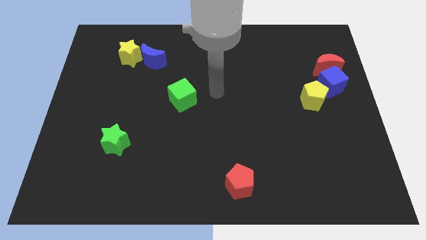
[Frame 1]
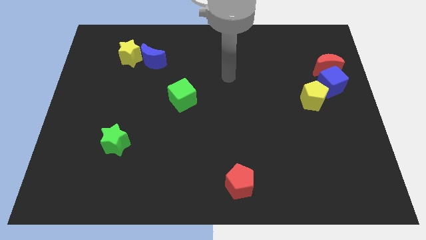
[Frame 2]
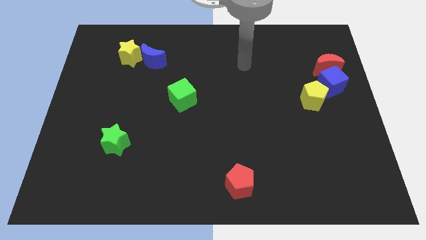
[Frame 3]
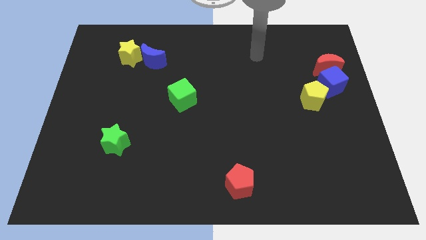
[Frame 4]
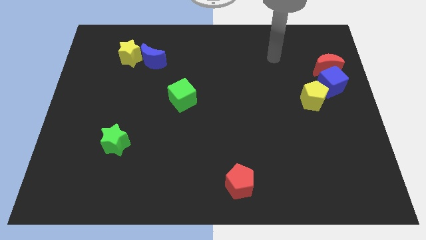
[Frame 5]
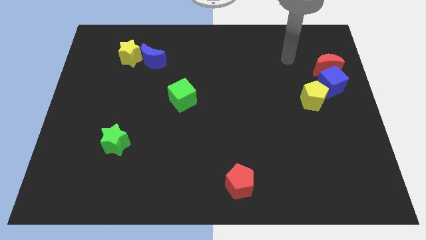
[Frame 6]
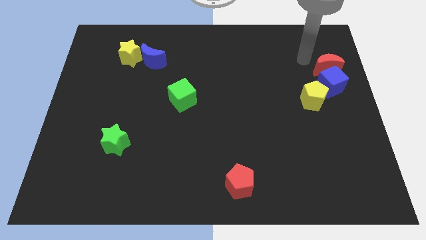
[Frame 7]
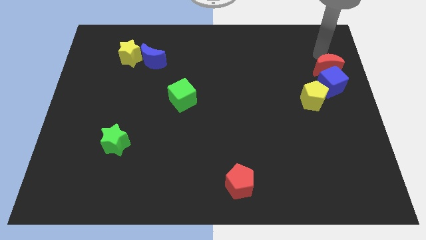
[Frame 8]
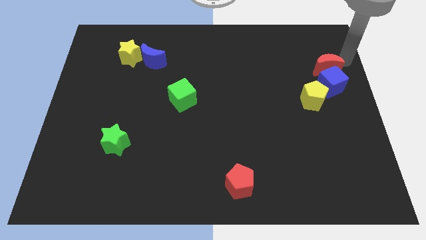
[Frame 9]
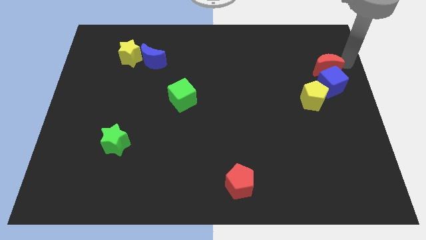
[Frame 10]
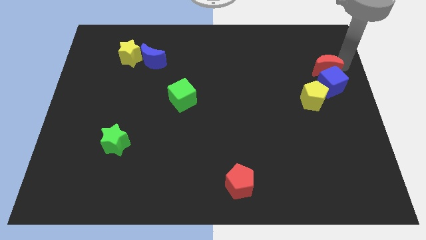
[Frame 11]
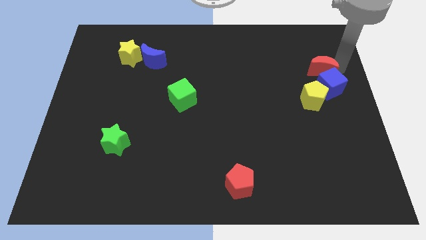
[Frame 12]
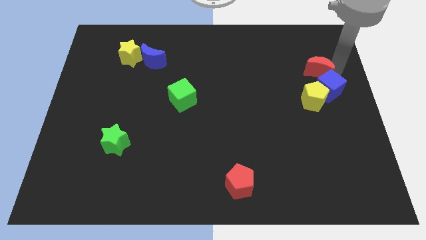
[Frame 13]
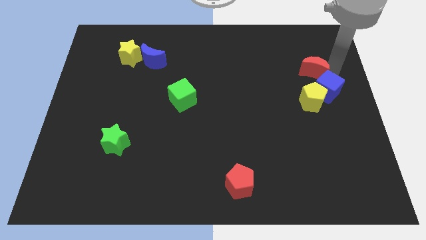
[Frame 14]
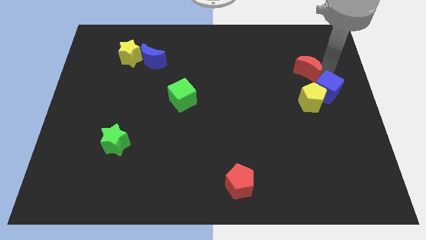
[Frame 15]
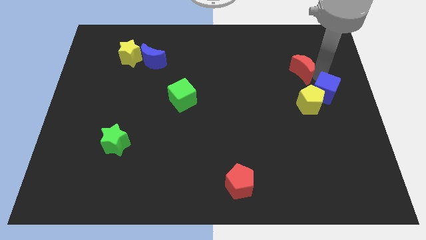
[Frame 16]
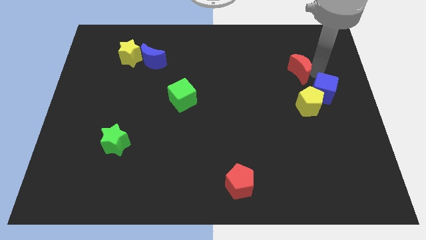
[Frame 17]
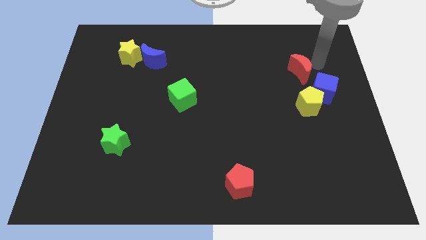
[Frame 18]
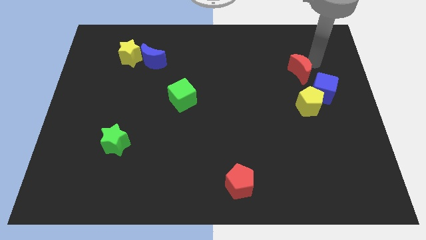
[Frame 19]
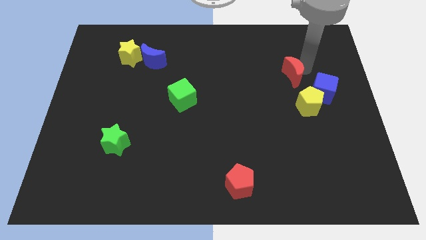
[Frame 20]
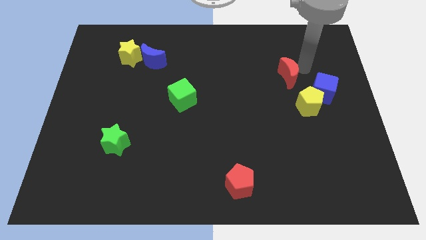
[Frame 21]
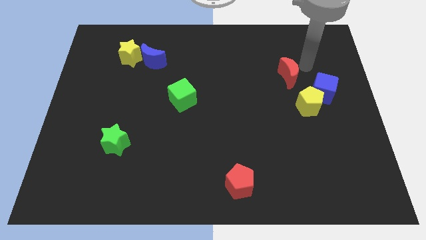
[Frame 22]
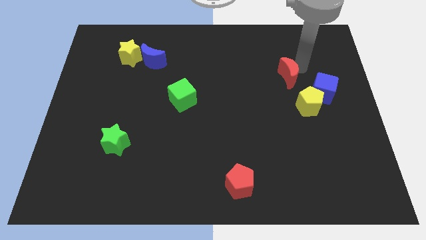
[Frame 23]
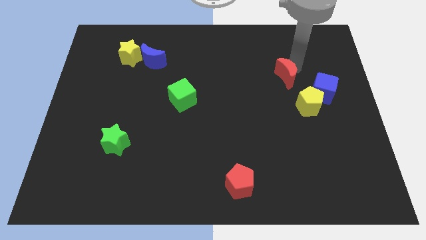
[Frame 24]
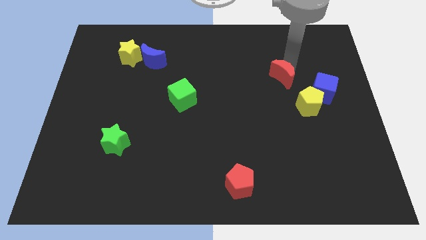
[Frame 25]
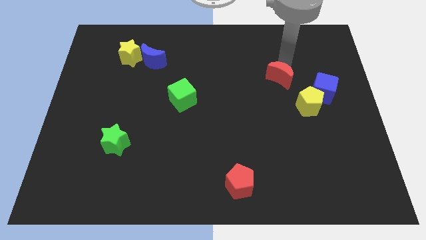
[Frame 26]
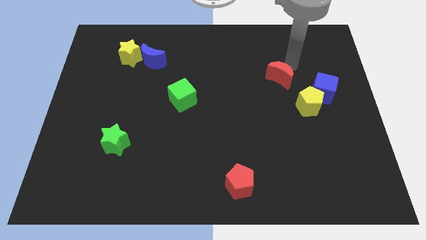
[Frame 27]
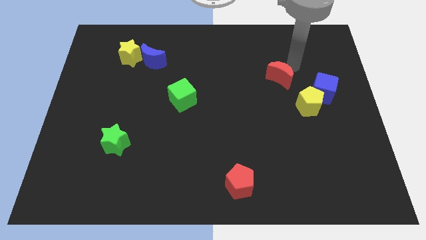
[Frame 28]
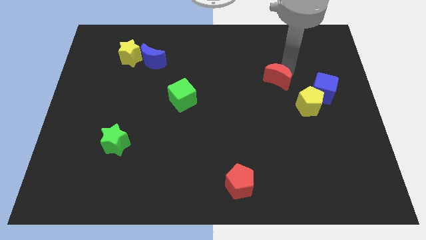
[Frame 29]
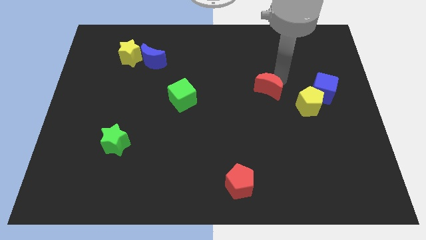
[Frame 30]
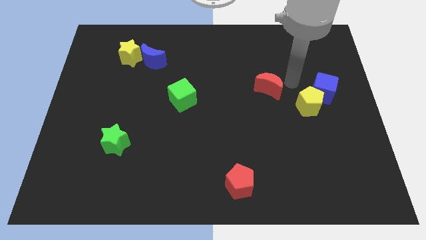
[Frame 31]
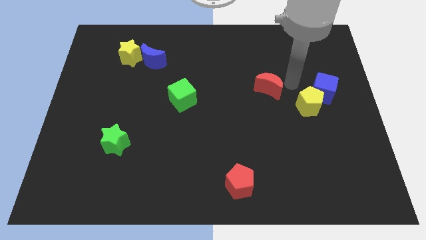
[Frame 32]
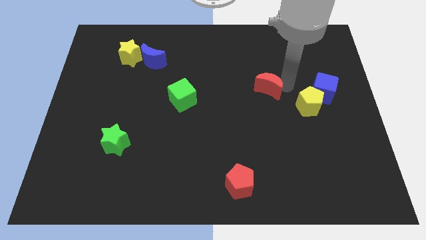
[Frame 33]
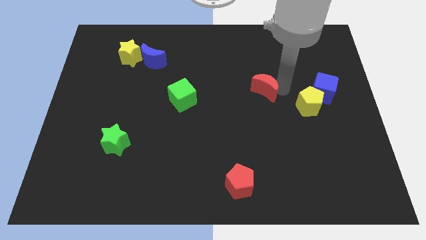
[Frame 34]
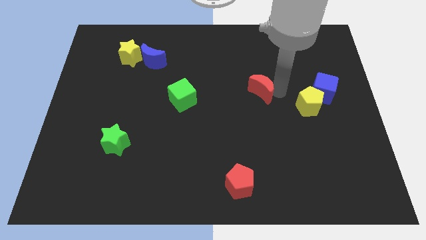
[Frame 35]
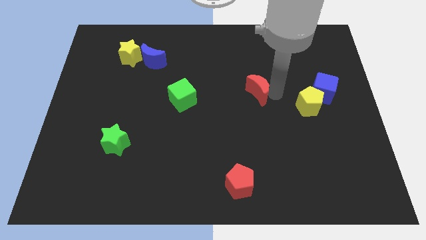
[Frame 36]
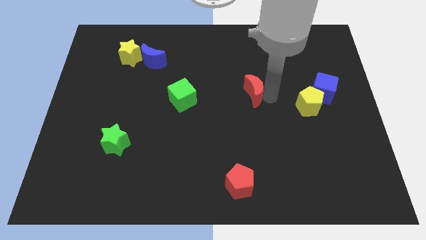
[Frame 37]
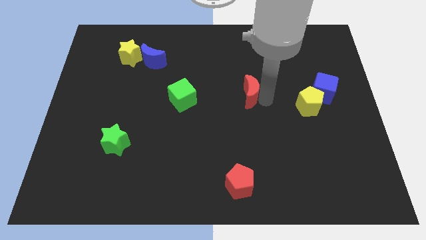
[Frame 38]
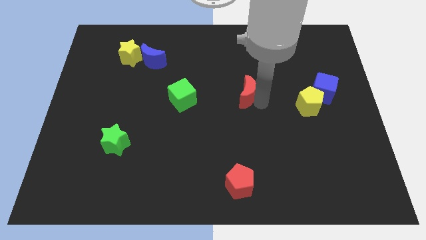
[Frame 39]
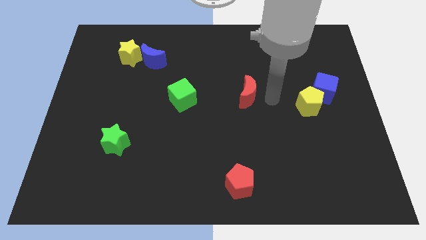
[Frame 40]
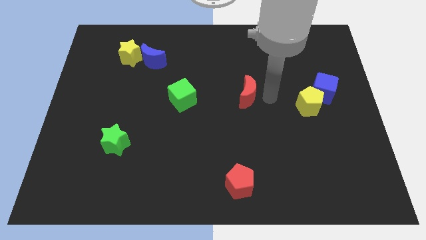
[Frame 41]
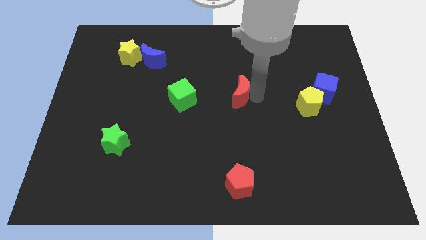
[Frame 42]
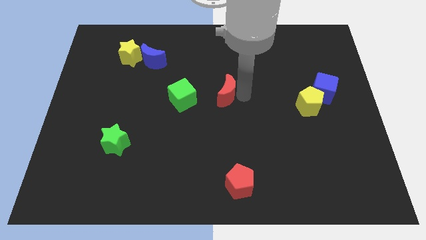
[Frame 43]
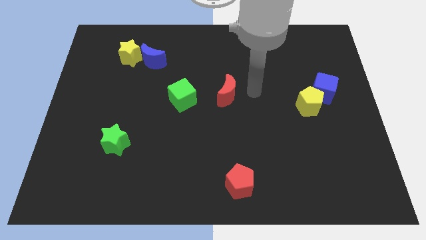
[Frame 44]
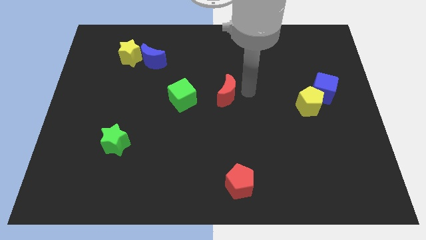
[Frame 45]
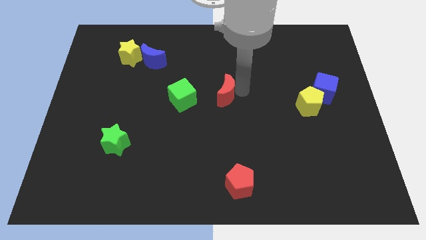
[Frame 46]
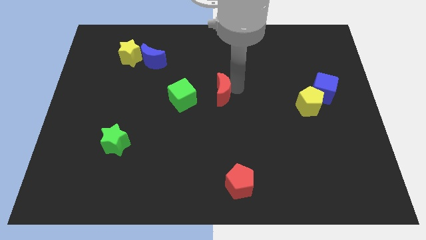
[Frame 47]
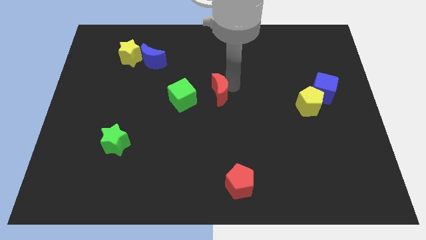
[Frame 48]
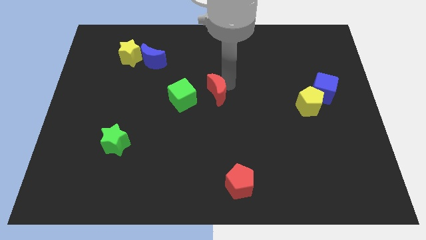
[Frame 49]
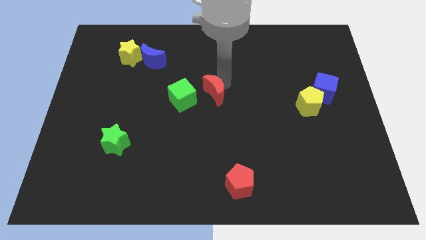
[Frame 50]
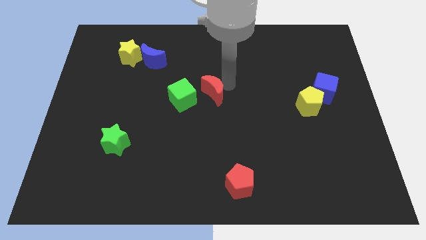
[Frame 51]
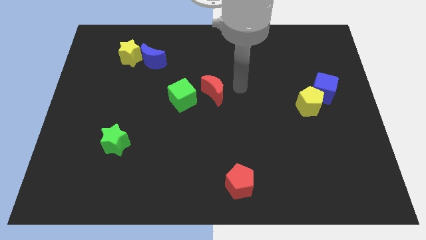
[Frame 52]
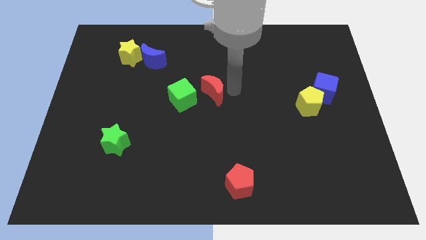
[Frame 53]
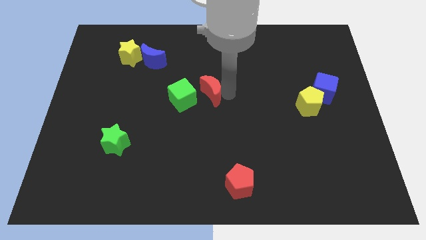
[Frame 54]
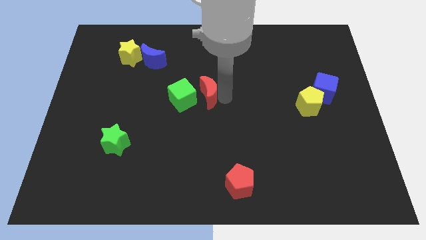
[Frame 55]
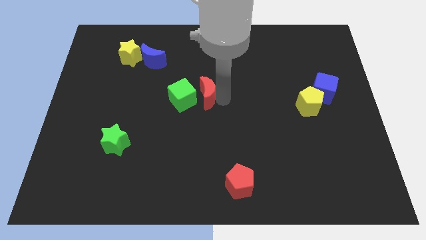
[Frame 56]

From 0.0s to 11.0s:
slide the red moon close to the green cube

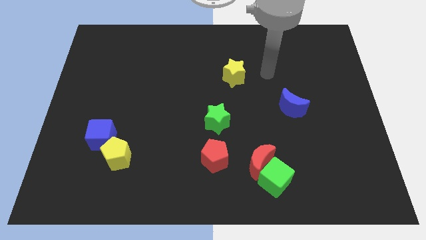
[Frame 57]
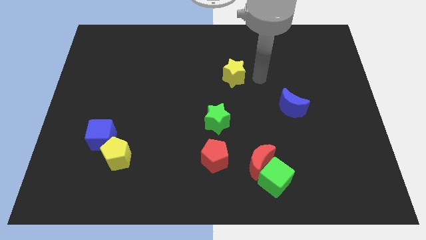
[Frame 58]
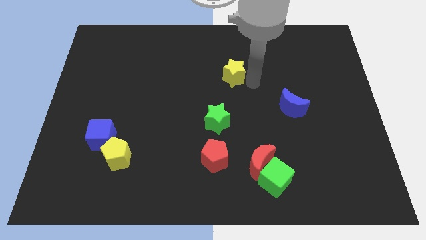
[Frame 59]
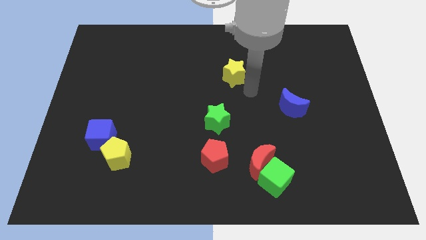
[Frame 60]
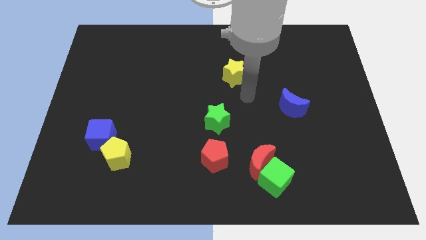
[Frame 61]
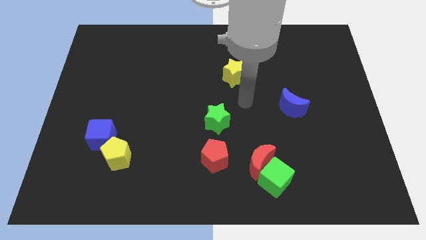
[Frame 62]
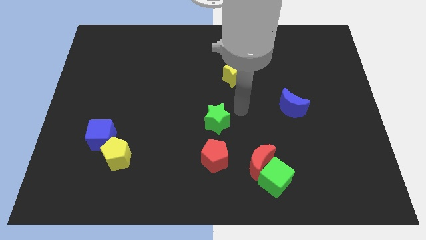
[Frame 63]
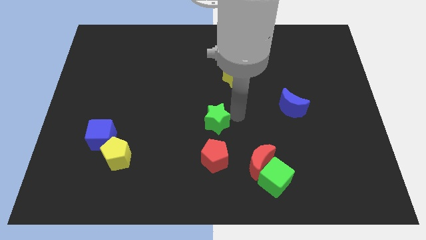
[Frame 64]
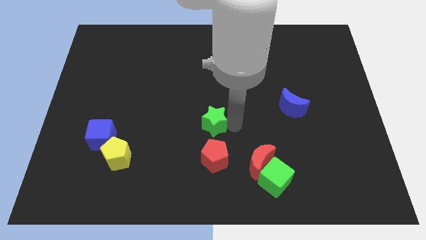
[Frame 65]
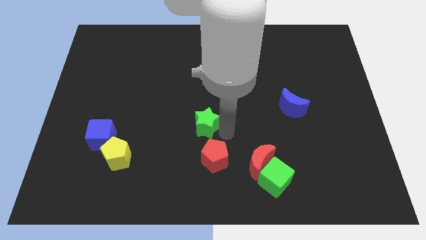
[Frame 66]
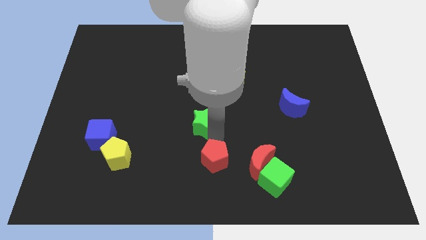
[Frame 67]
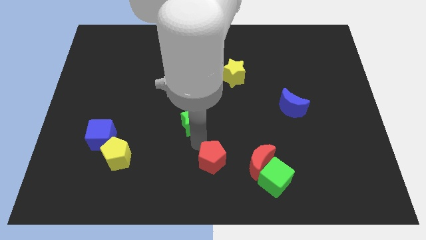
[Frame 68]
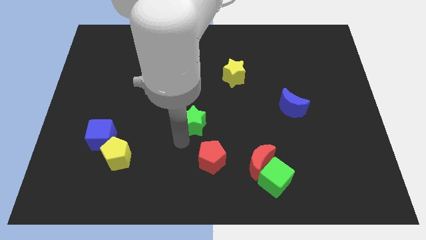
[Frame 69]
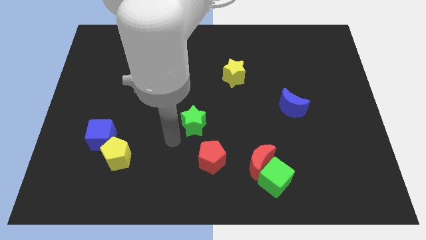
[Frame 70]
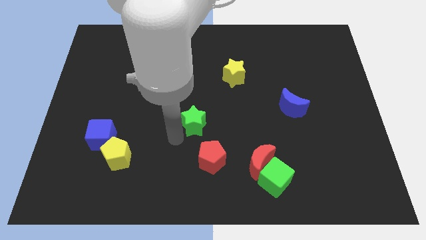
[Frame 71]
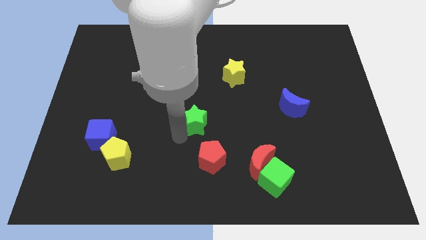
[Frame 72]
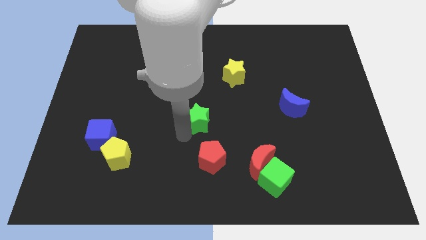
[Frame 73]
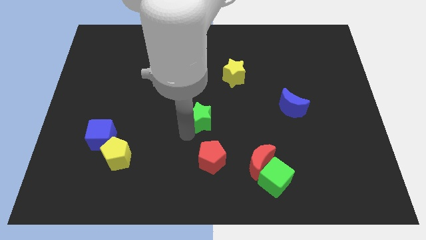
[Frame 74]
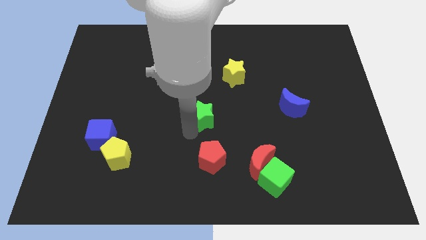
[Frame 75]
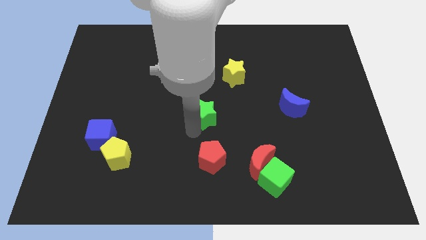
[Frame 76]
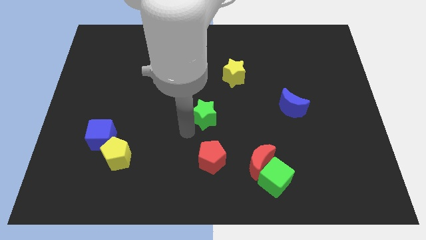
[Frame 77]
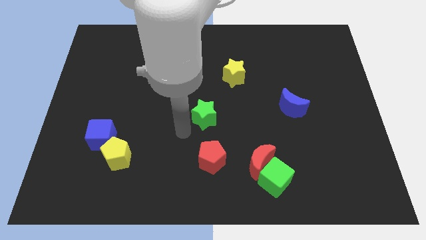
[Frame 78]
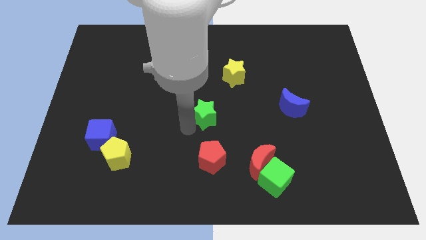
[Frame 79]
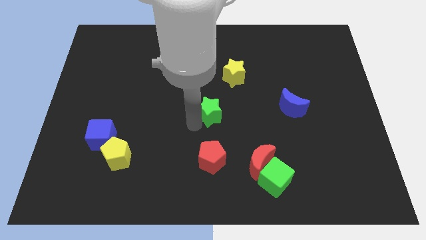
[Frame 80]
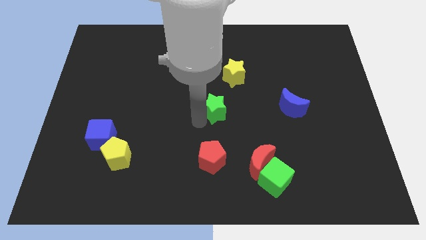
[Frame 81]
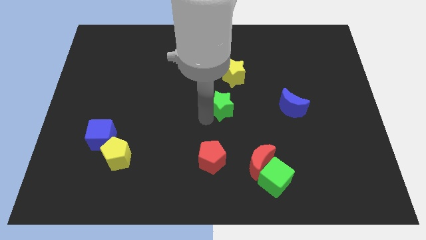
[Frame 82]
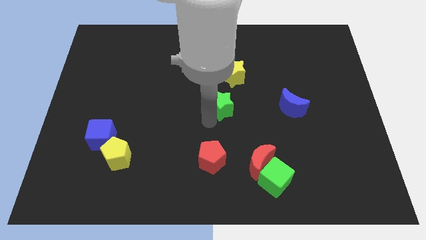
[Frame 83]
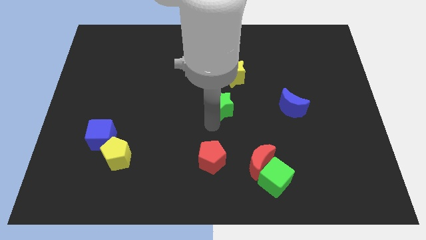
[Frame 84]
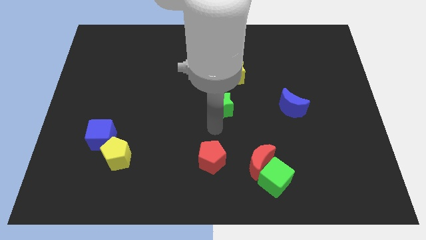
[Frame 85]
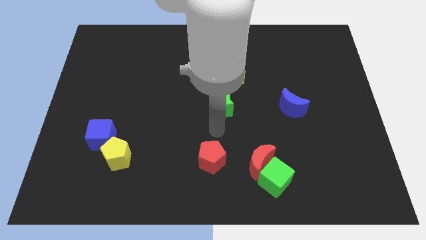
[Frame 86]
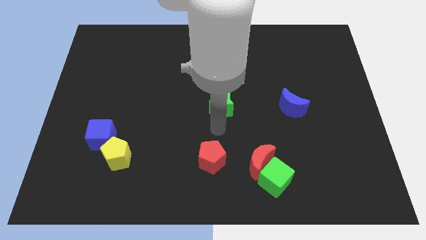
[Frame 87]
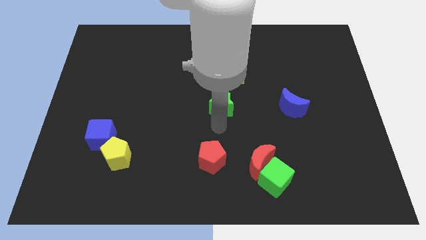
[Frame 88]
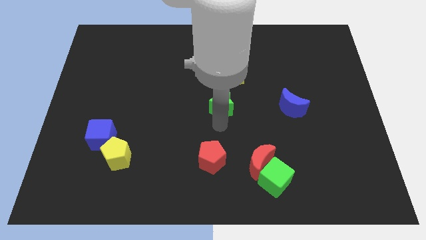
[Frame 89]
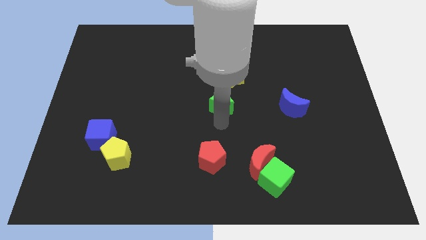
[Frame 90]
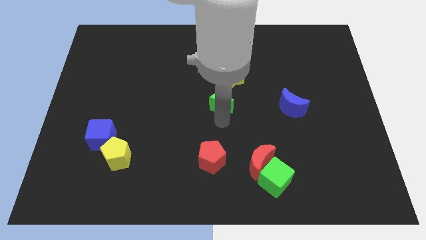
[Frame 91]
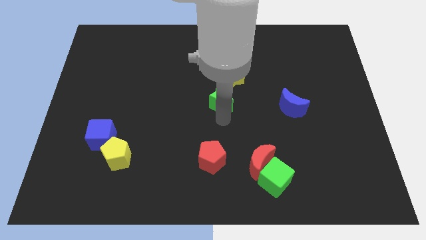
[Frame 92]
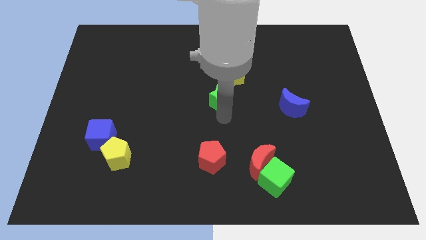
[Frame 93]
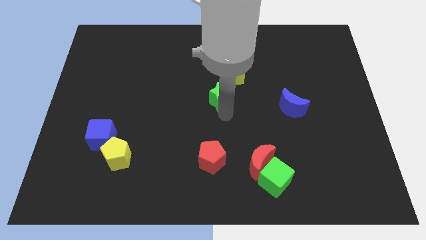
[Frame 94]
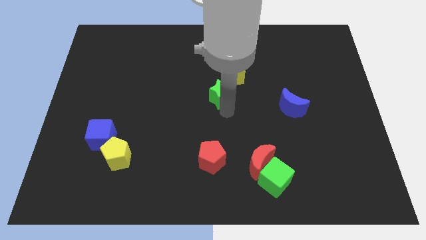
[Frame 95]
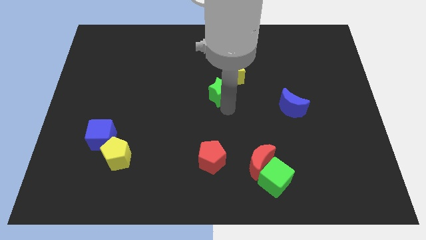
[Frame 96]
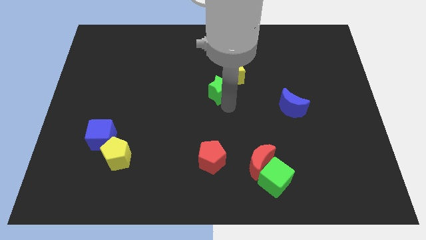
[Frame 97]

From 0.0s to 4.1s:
put the green star close to the yellow star
